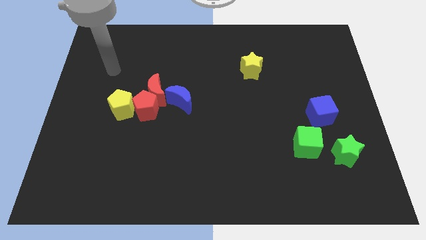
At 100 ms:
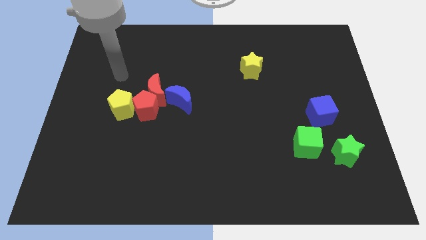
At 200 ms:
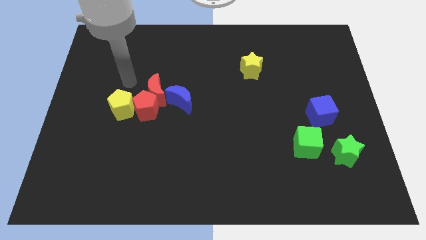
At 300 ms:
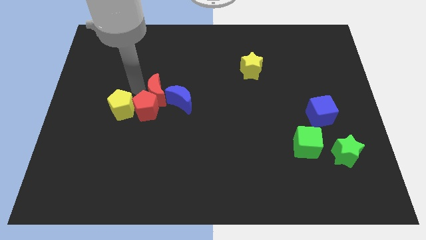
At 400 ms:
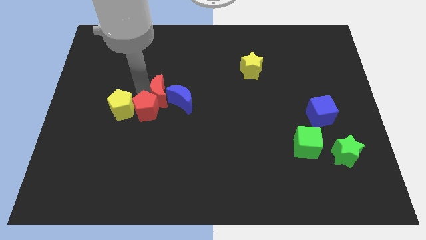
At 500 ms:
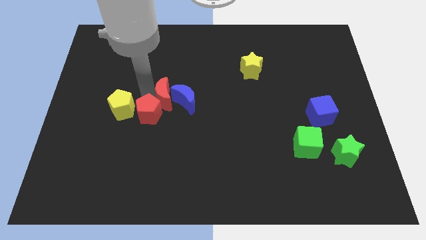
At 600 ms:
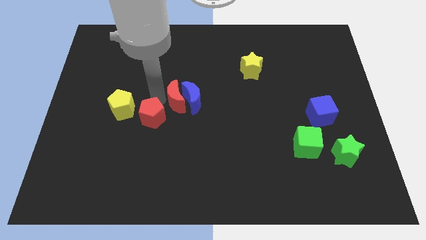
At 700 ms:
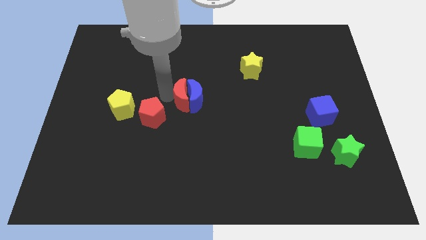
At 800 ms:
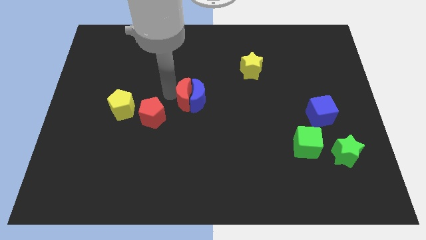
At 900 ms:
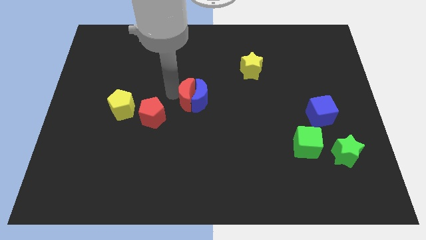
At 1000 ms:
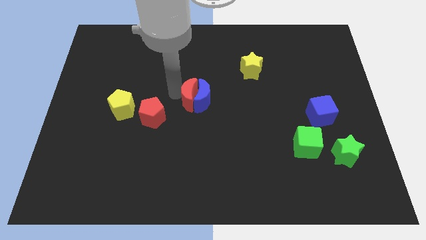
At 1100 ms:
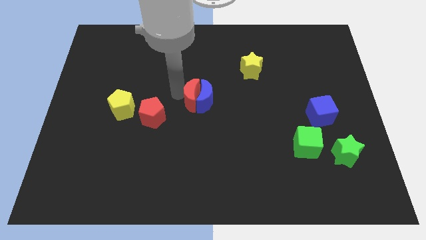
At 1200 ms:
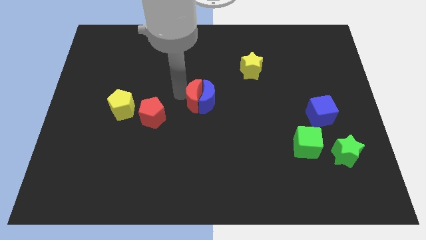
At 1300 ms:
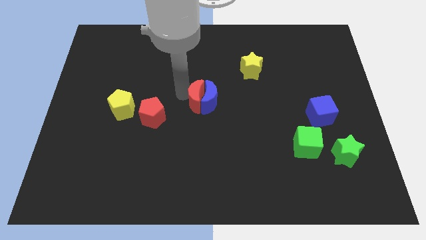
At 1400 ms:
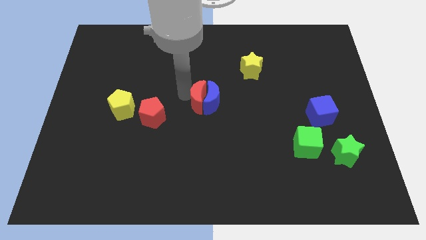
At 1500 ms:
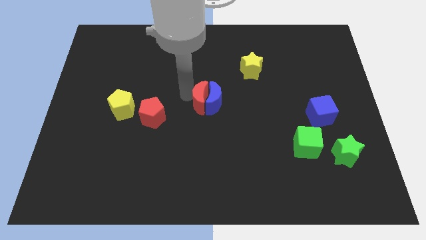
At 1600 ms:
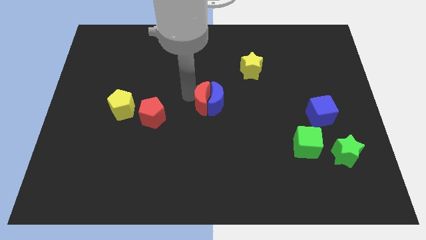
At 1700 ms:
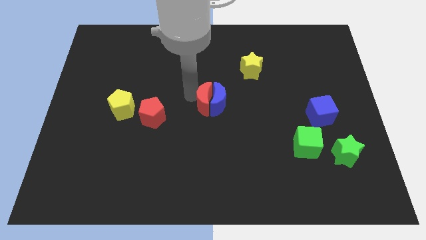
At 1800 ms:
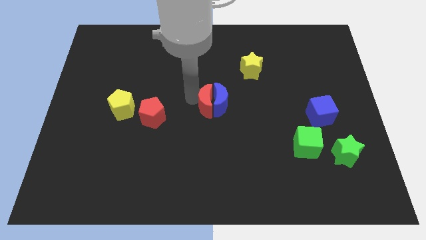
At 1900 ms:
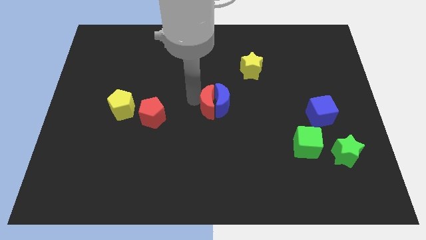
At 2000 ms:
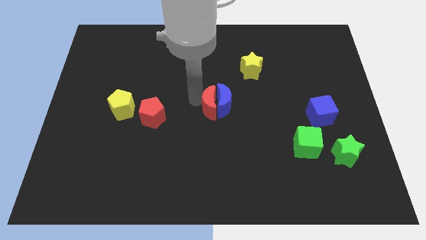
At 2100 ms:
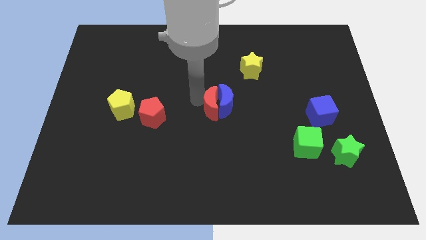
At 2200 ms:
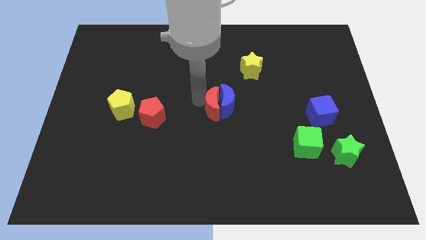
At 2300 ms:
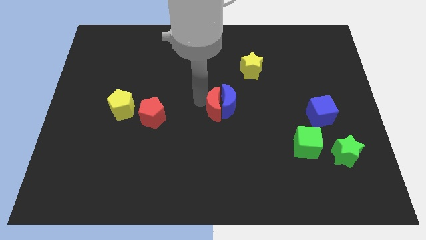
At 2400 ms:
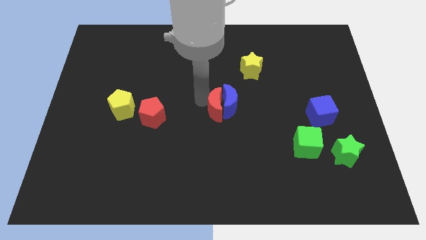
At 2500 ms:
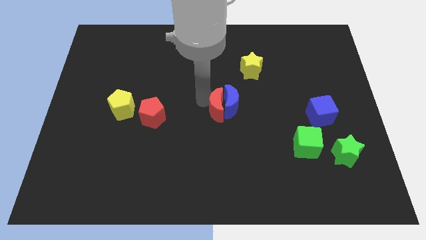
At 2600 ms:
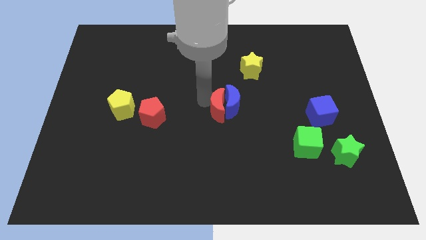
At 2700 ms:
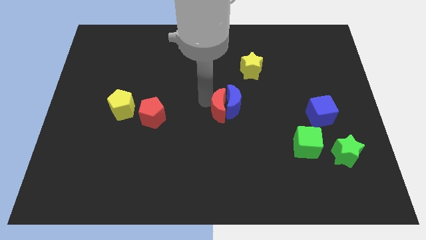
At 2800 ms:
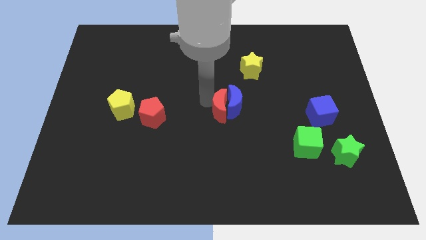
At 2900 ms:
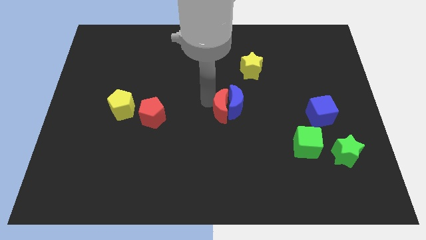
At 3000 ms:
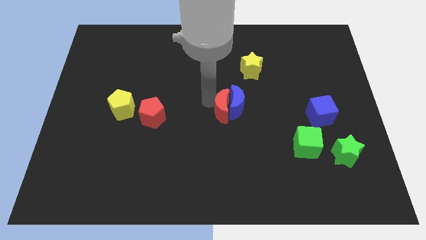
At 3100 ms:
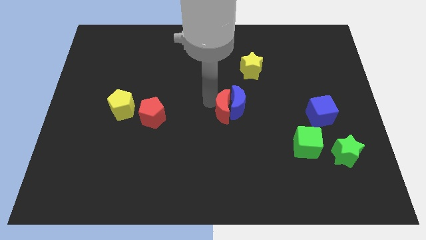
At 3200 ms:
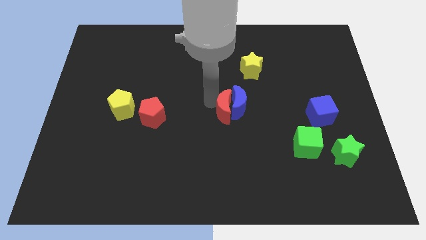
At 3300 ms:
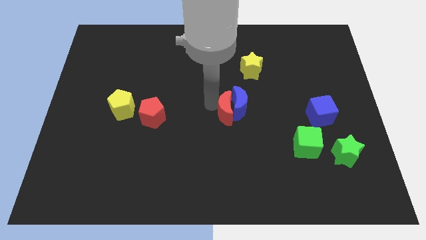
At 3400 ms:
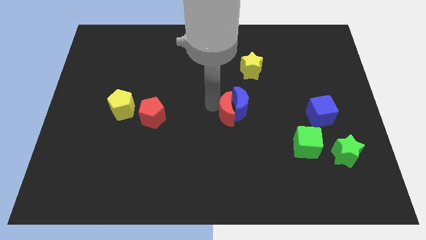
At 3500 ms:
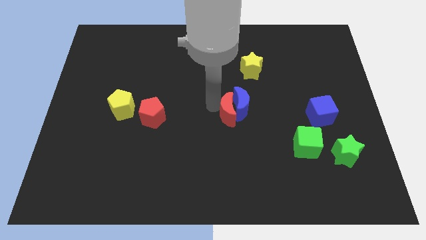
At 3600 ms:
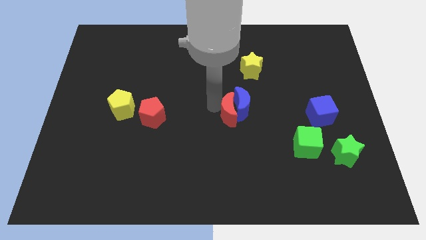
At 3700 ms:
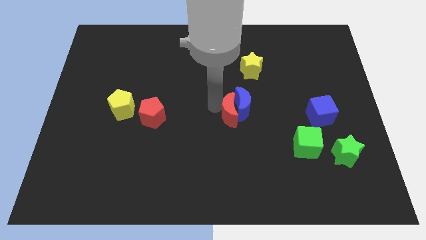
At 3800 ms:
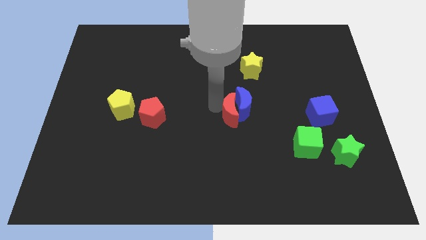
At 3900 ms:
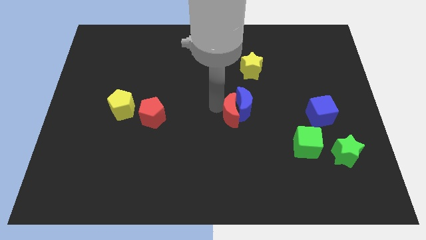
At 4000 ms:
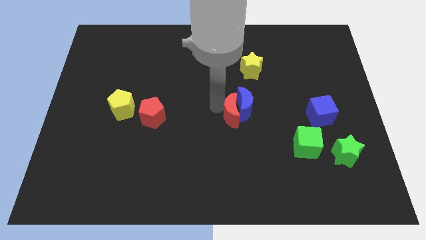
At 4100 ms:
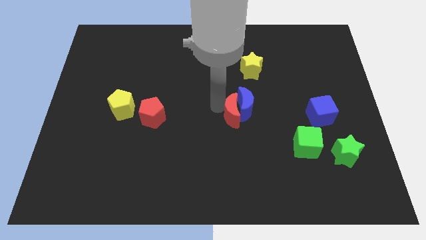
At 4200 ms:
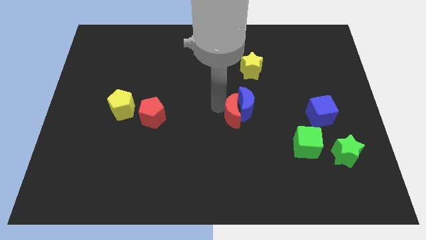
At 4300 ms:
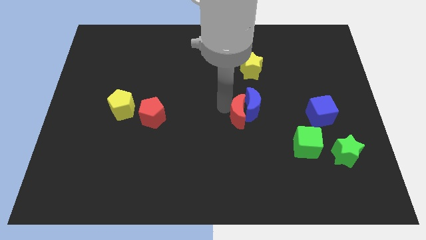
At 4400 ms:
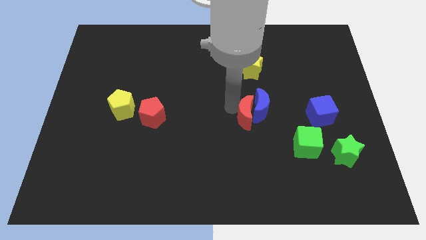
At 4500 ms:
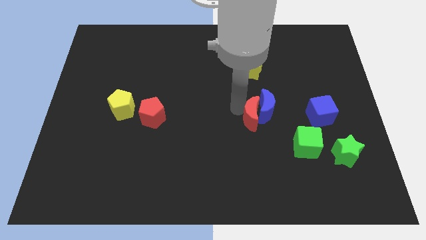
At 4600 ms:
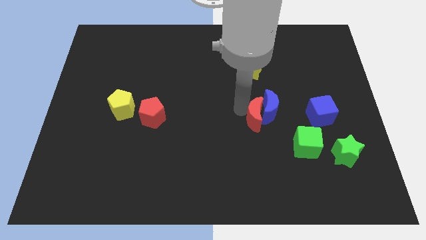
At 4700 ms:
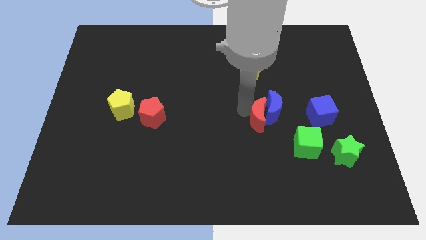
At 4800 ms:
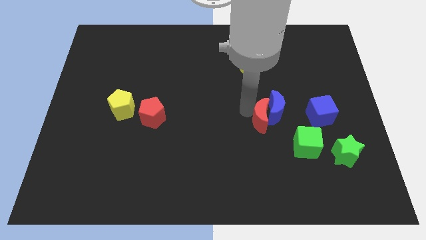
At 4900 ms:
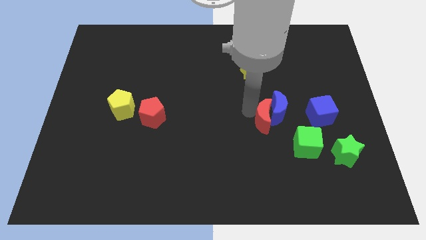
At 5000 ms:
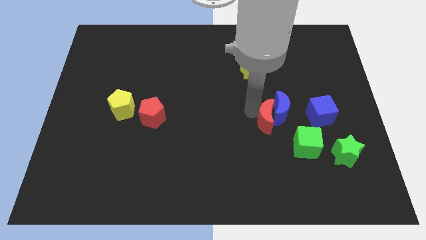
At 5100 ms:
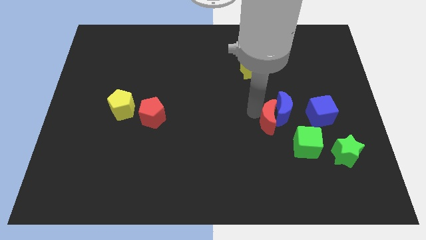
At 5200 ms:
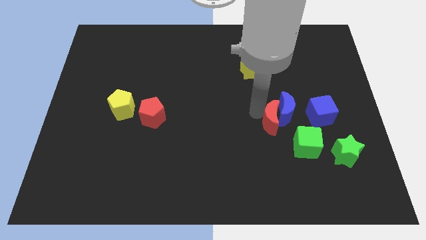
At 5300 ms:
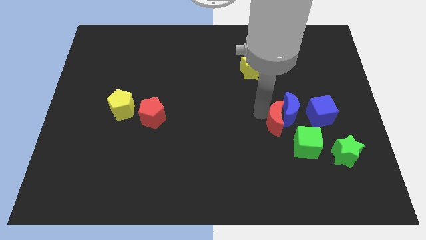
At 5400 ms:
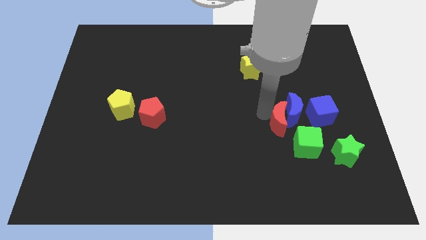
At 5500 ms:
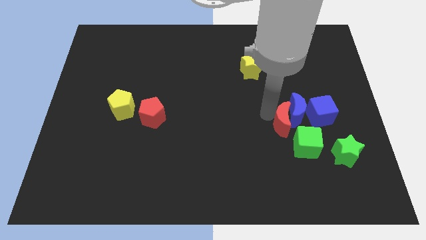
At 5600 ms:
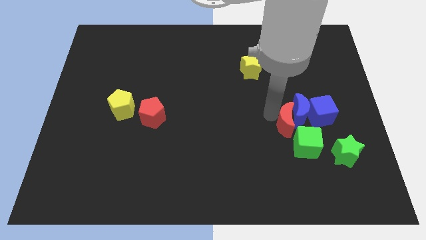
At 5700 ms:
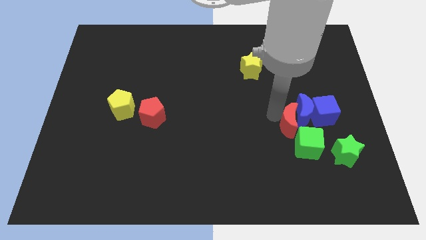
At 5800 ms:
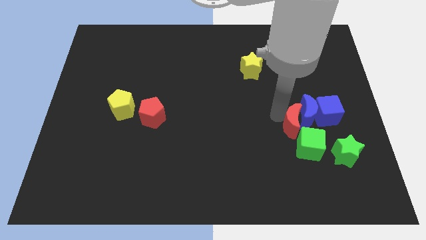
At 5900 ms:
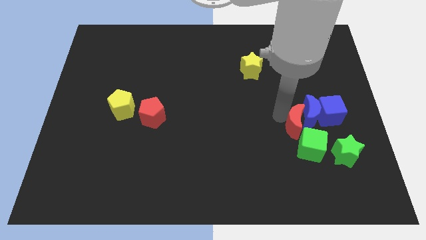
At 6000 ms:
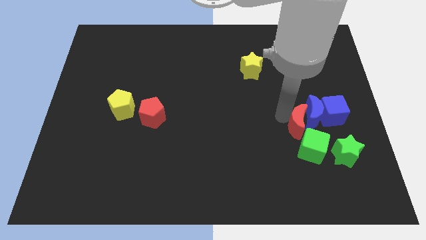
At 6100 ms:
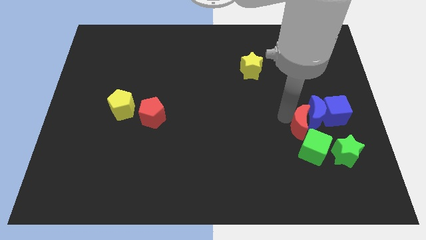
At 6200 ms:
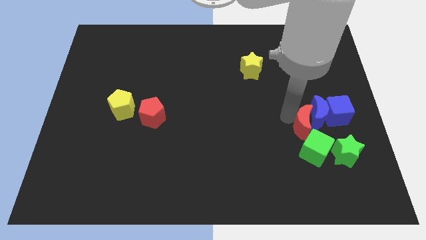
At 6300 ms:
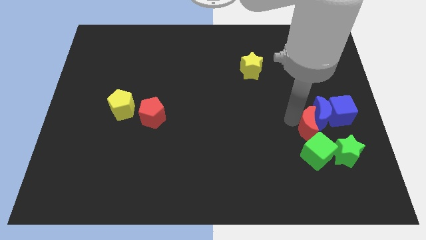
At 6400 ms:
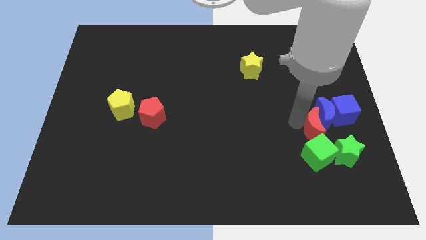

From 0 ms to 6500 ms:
put the blue moon to the center right

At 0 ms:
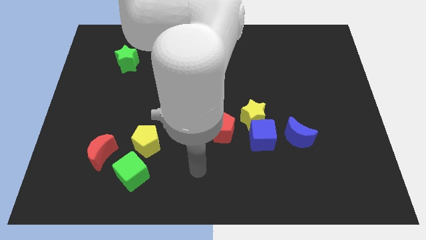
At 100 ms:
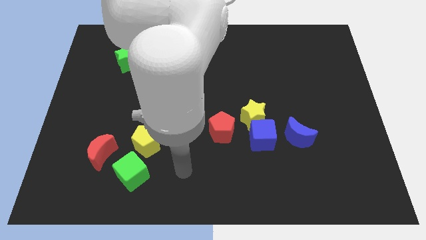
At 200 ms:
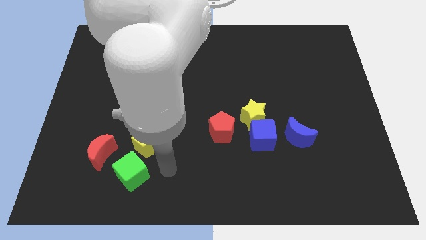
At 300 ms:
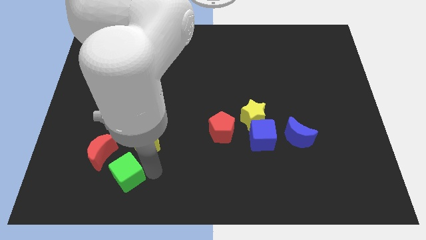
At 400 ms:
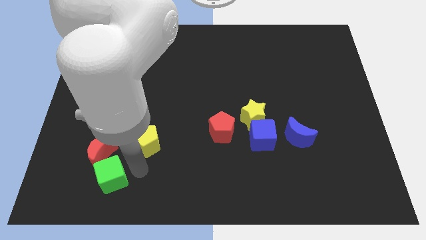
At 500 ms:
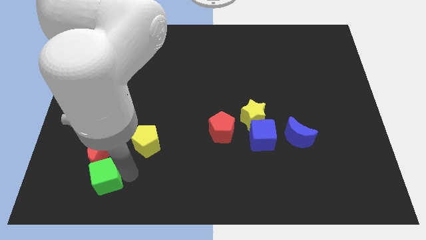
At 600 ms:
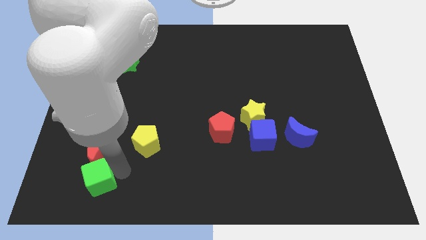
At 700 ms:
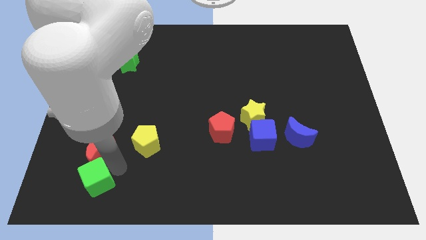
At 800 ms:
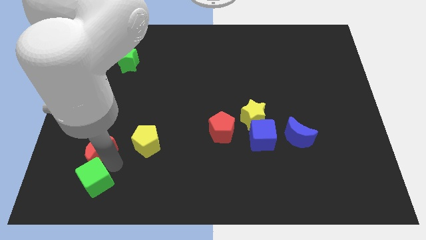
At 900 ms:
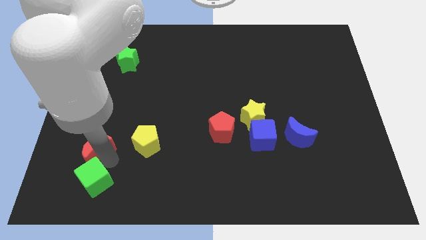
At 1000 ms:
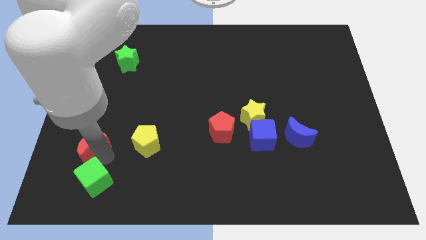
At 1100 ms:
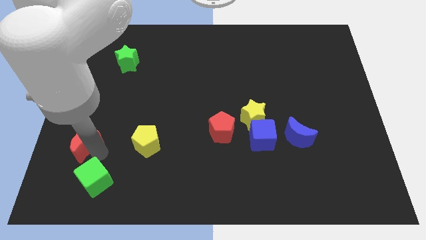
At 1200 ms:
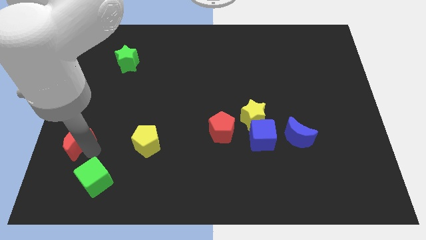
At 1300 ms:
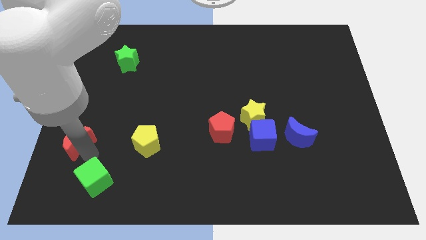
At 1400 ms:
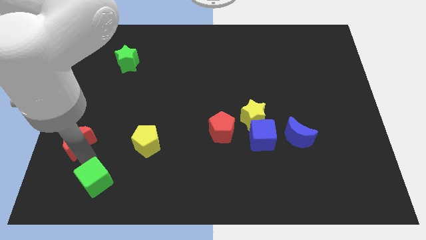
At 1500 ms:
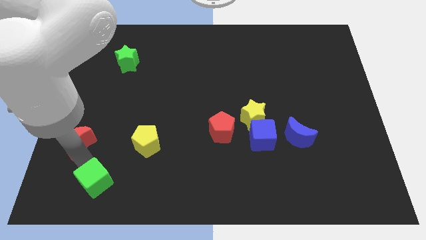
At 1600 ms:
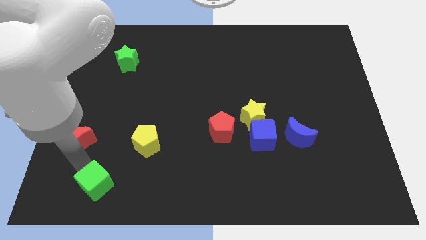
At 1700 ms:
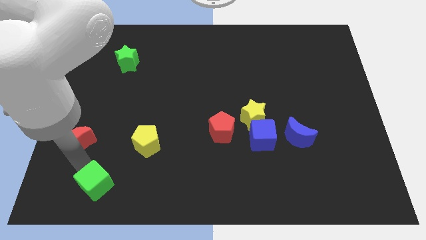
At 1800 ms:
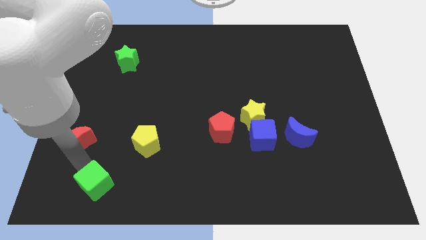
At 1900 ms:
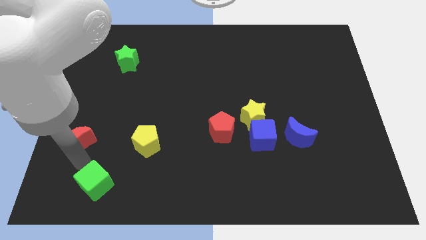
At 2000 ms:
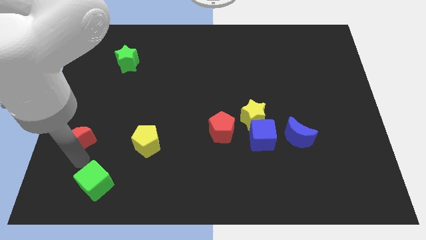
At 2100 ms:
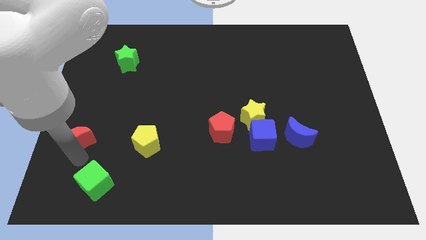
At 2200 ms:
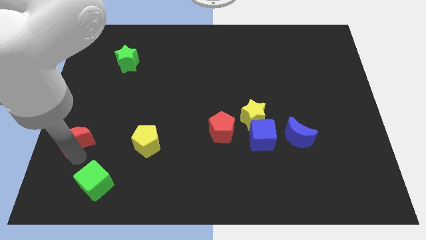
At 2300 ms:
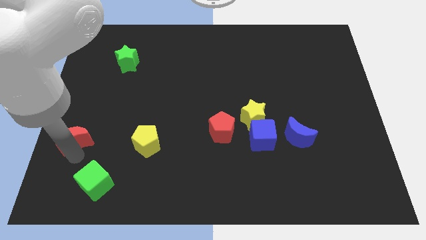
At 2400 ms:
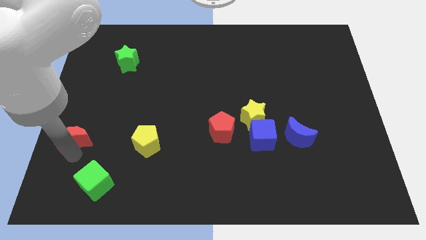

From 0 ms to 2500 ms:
move the red moon to the left side of the board
